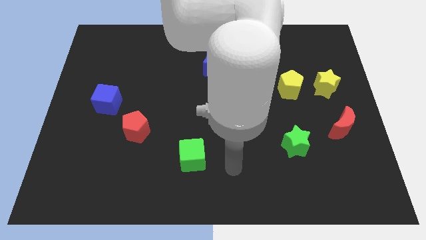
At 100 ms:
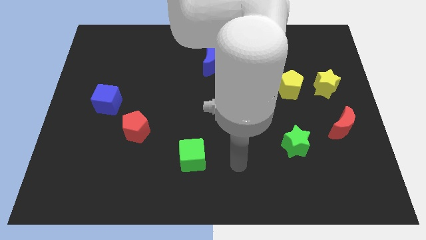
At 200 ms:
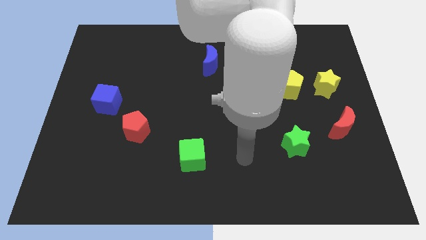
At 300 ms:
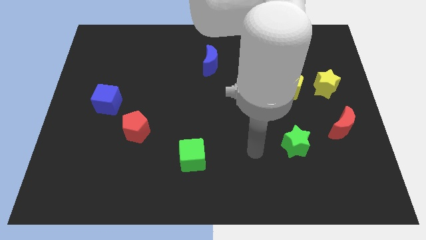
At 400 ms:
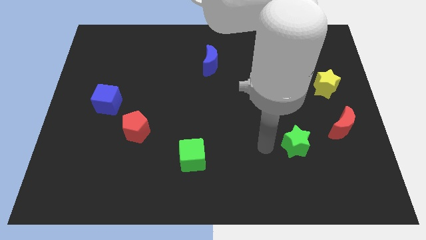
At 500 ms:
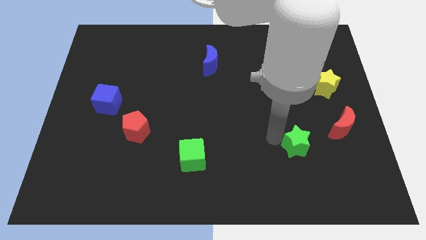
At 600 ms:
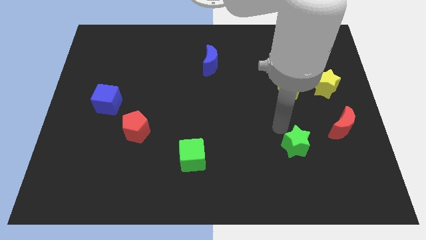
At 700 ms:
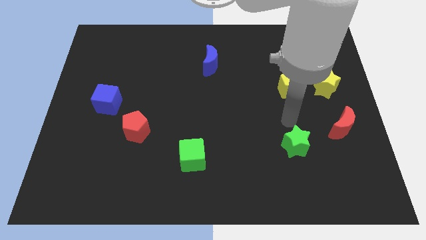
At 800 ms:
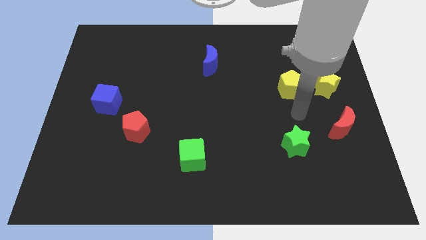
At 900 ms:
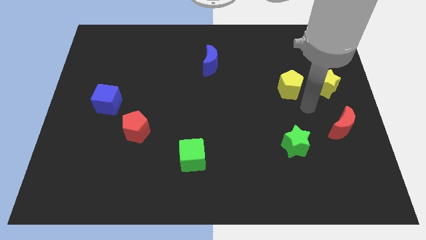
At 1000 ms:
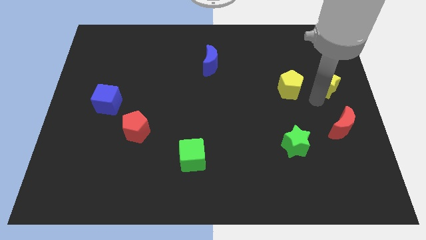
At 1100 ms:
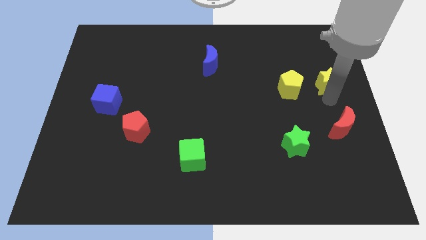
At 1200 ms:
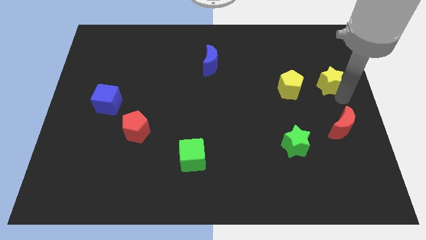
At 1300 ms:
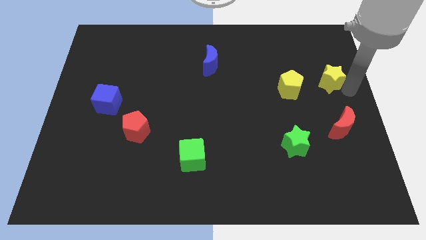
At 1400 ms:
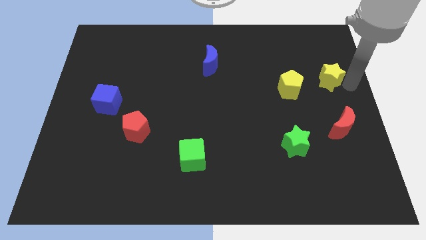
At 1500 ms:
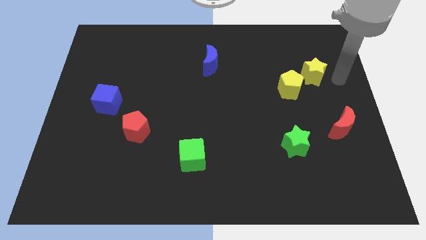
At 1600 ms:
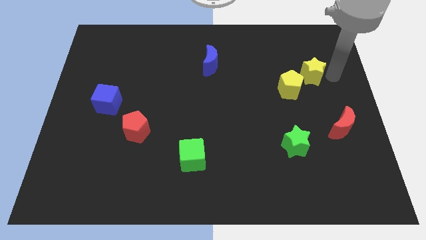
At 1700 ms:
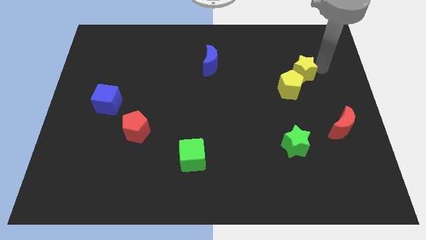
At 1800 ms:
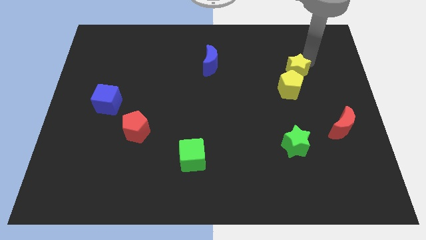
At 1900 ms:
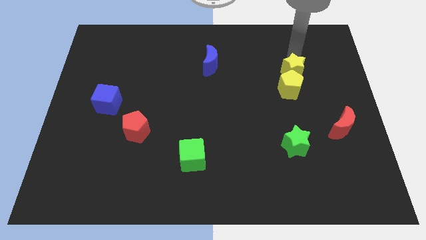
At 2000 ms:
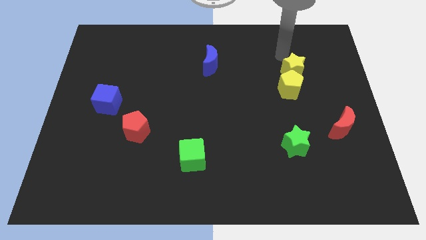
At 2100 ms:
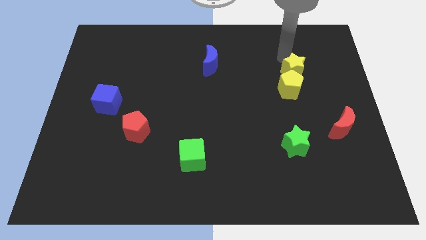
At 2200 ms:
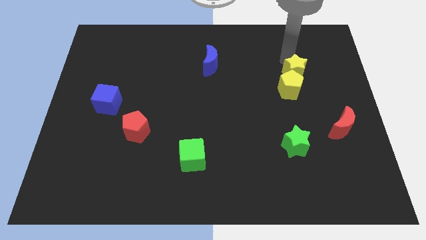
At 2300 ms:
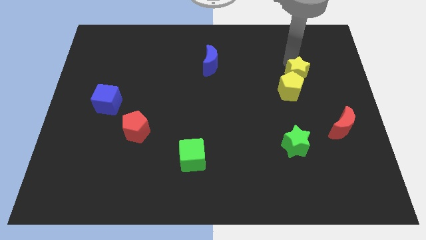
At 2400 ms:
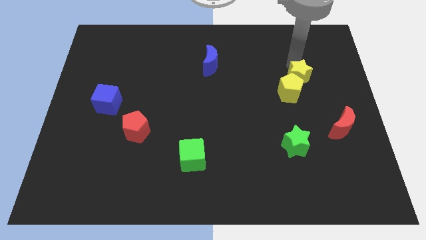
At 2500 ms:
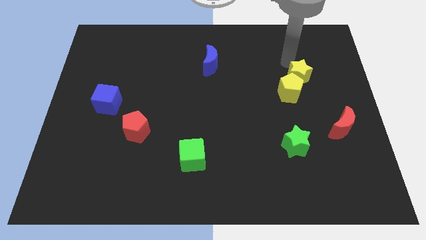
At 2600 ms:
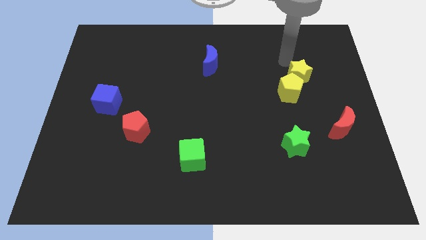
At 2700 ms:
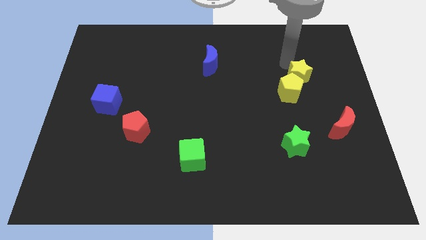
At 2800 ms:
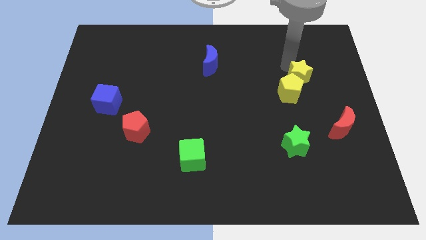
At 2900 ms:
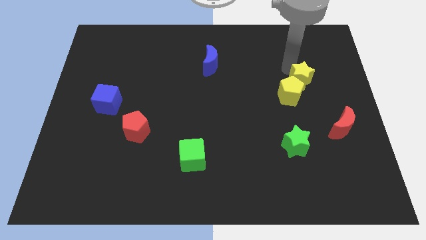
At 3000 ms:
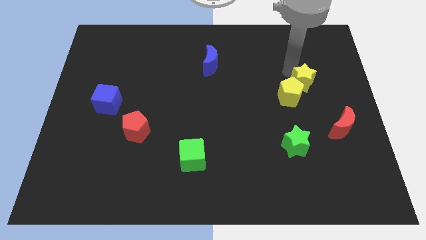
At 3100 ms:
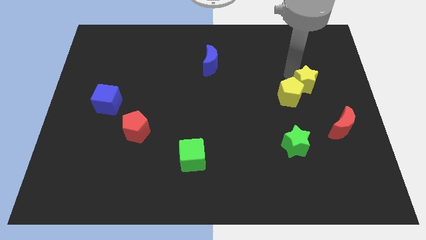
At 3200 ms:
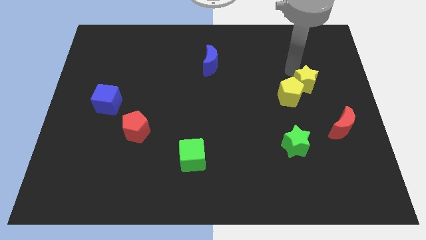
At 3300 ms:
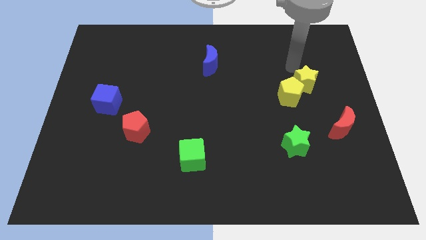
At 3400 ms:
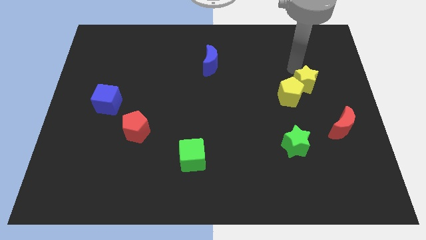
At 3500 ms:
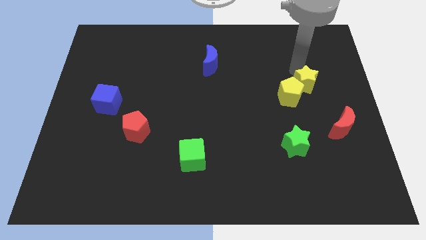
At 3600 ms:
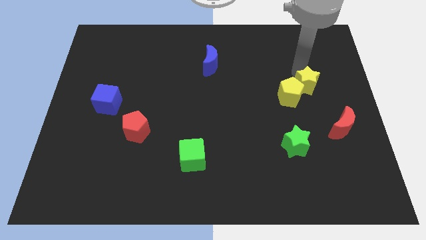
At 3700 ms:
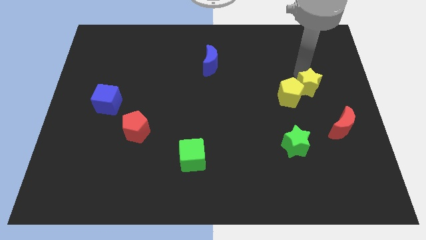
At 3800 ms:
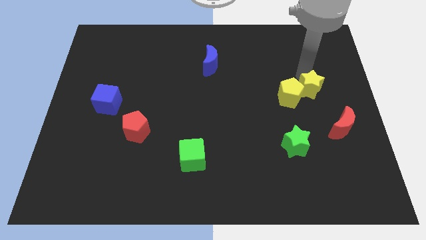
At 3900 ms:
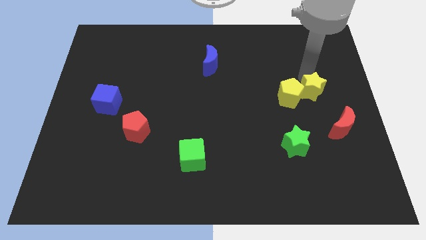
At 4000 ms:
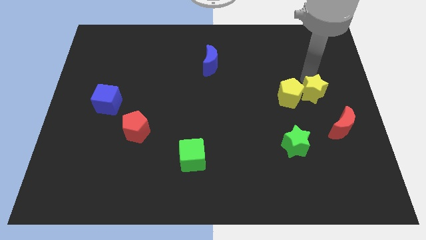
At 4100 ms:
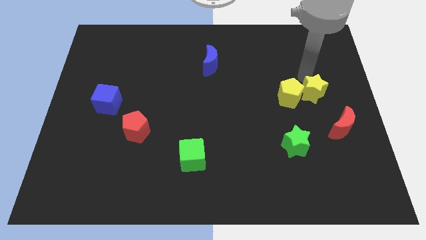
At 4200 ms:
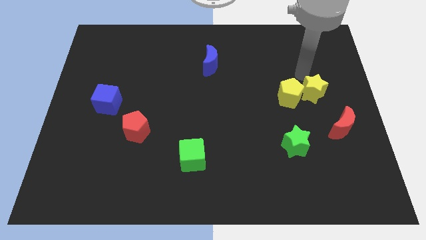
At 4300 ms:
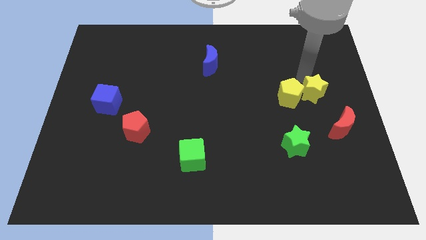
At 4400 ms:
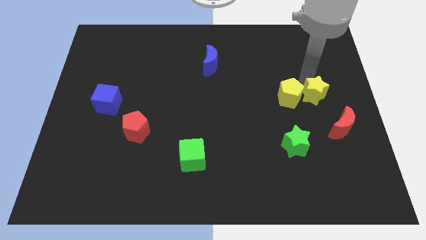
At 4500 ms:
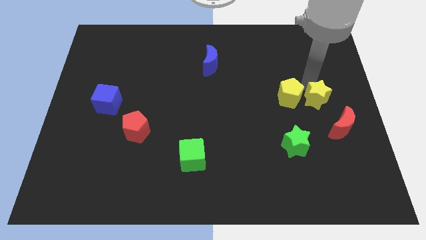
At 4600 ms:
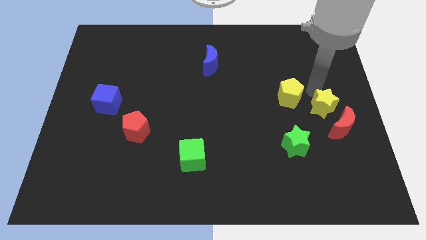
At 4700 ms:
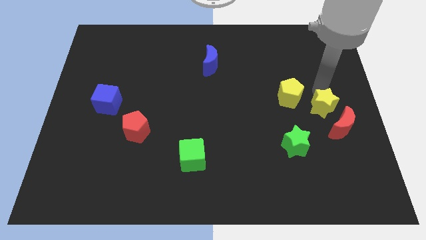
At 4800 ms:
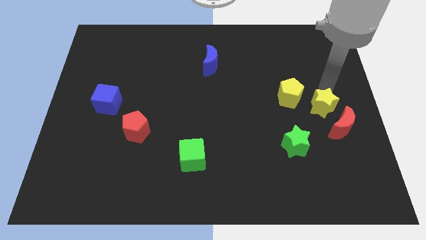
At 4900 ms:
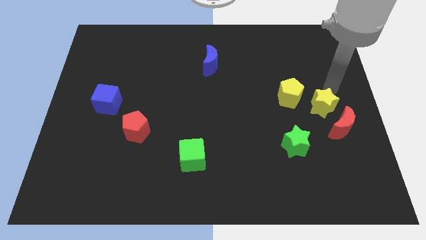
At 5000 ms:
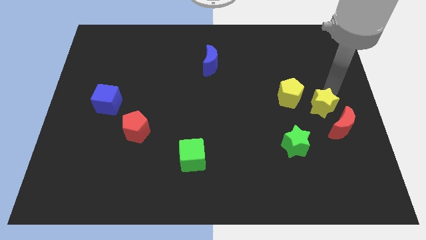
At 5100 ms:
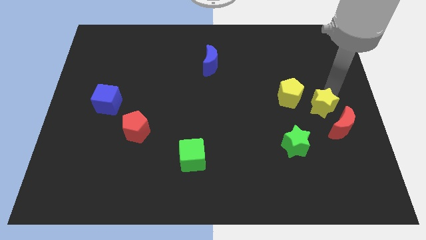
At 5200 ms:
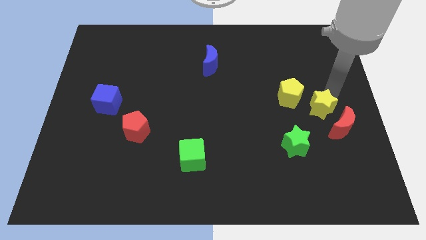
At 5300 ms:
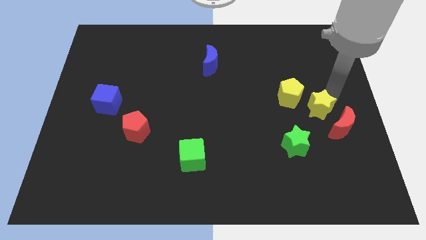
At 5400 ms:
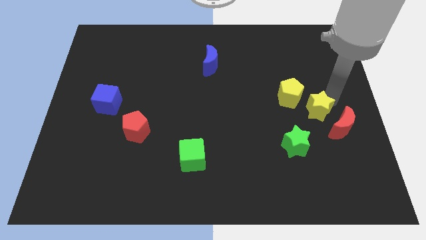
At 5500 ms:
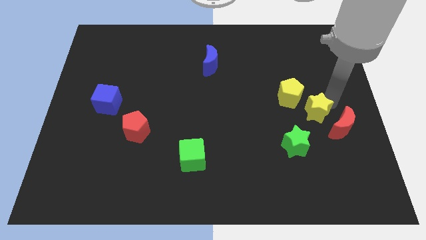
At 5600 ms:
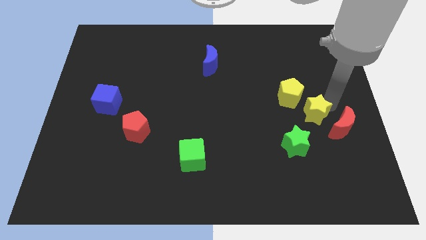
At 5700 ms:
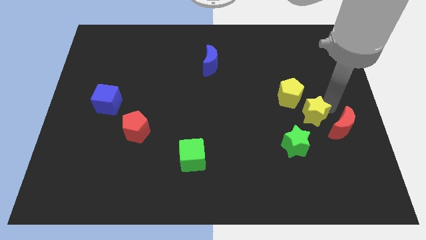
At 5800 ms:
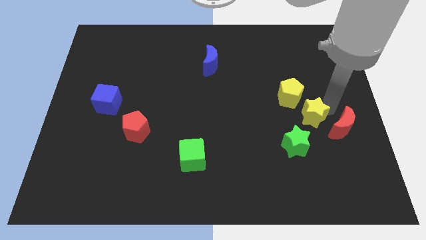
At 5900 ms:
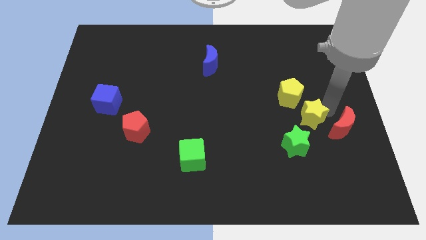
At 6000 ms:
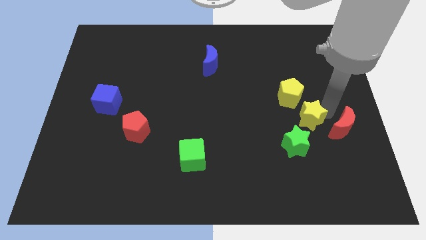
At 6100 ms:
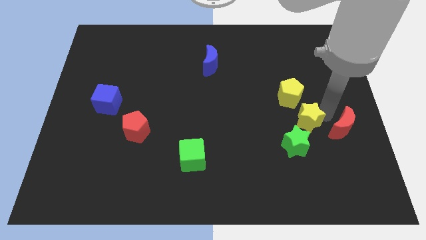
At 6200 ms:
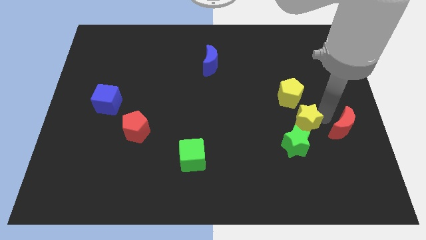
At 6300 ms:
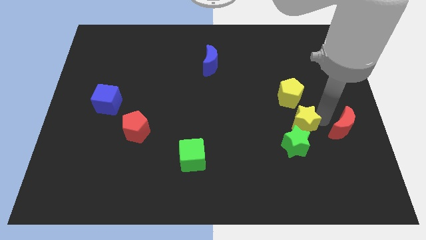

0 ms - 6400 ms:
put the yellow star towards the green star
